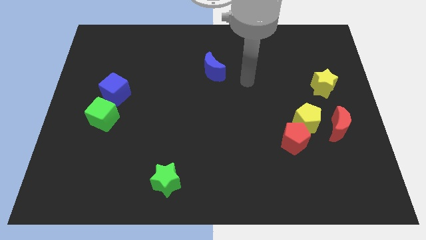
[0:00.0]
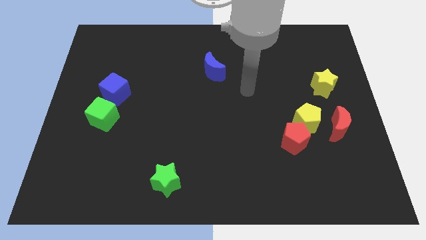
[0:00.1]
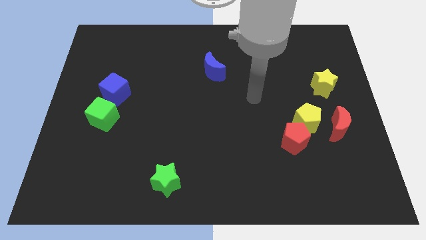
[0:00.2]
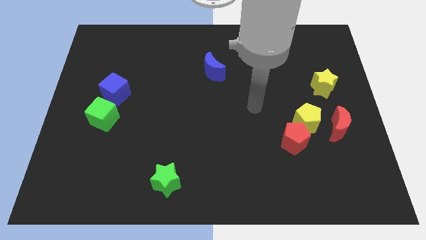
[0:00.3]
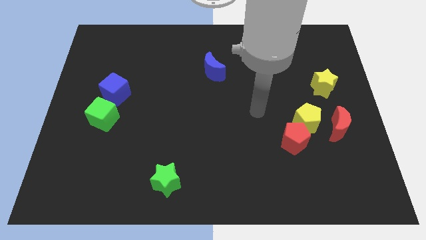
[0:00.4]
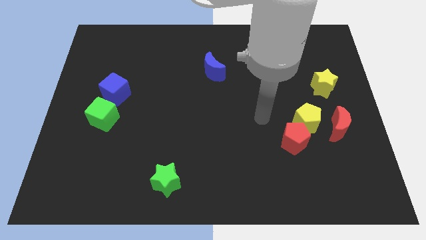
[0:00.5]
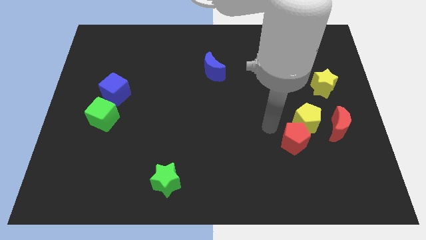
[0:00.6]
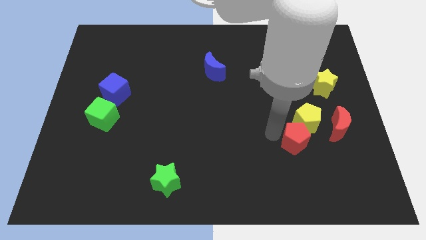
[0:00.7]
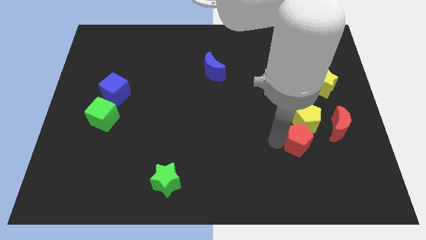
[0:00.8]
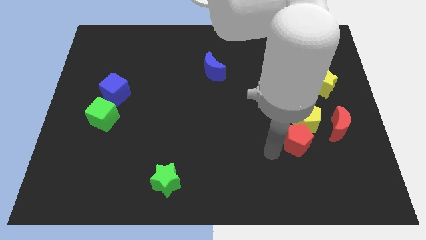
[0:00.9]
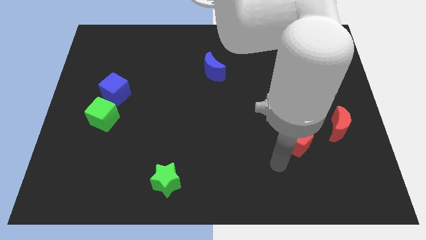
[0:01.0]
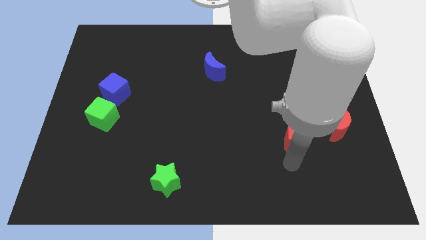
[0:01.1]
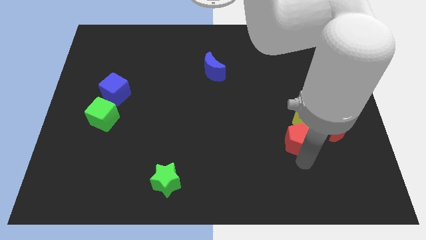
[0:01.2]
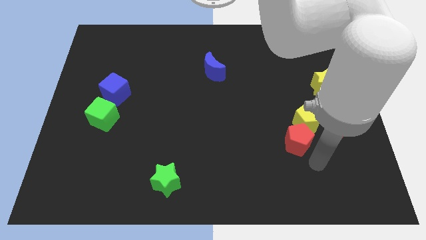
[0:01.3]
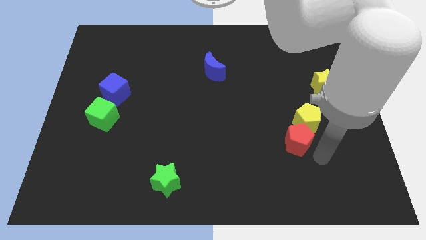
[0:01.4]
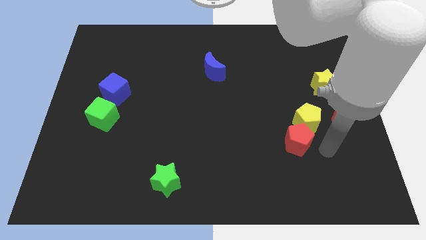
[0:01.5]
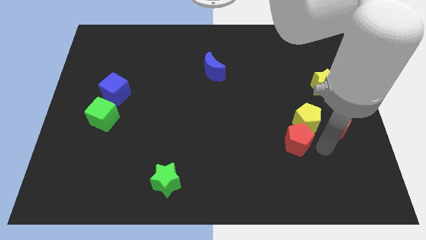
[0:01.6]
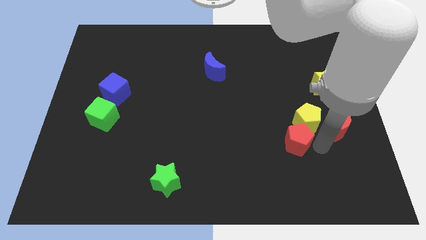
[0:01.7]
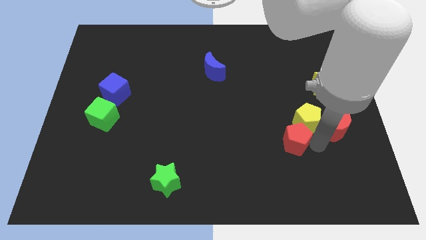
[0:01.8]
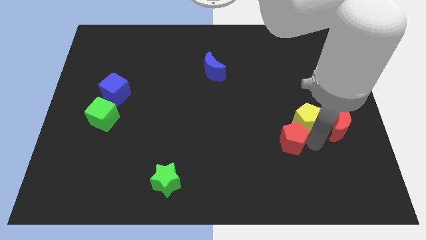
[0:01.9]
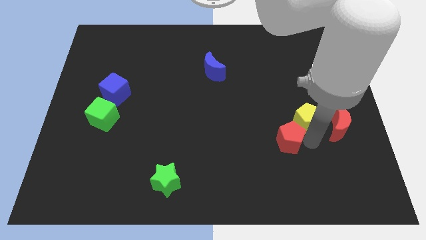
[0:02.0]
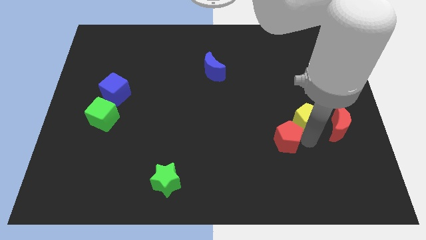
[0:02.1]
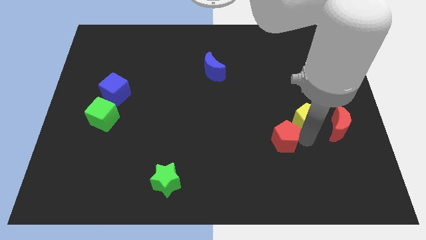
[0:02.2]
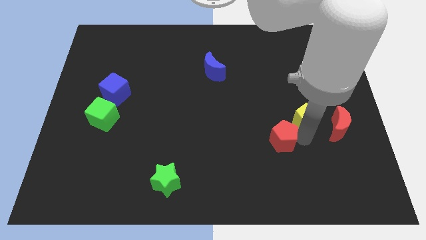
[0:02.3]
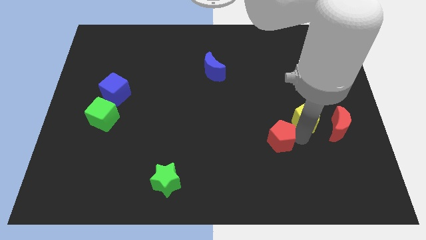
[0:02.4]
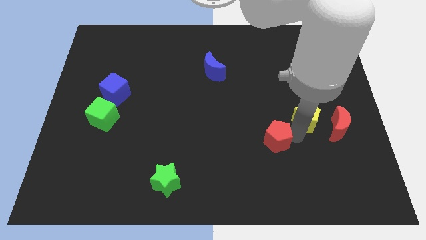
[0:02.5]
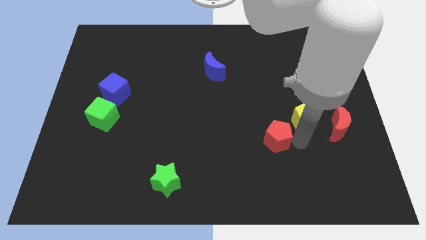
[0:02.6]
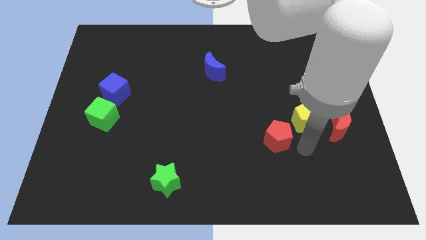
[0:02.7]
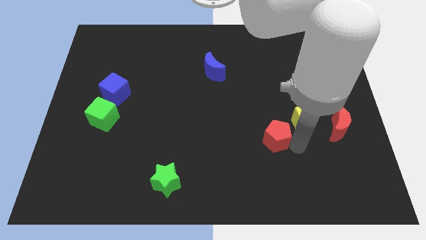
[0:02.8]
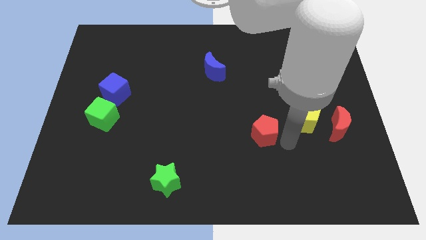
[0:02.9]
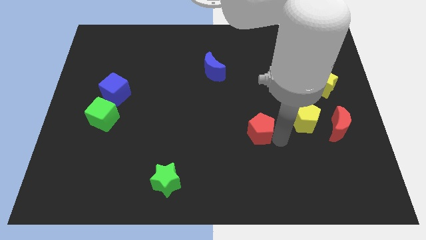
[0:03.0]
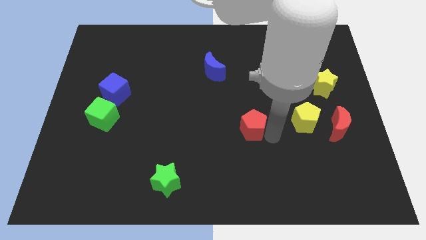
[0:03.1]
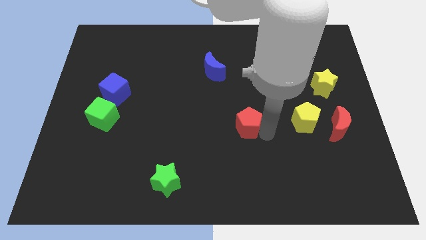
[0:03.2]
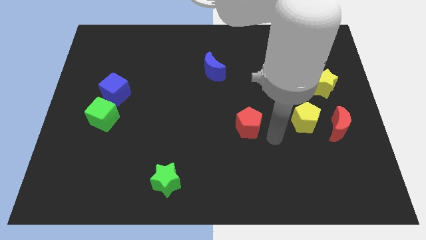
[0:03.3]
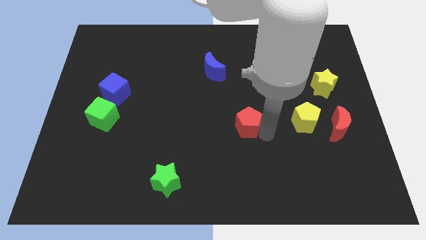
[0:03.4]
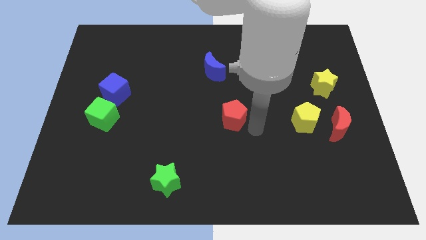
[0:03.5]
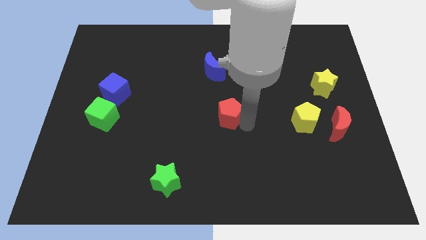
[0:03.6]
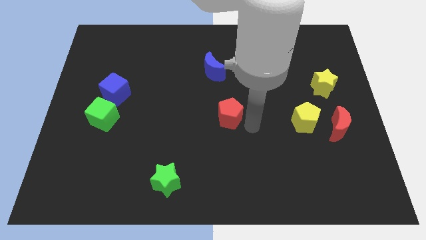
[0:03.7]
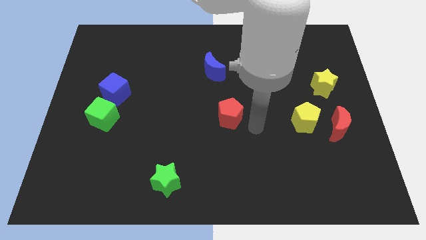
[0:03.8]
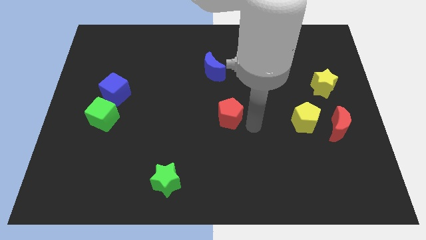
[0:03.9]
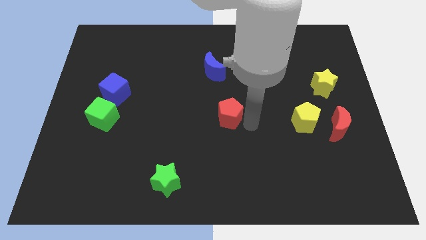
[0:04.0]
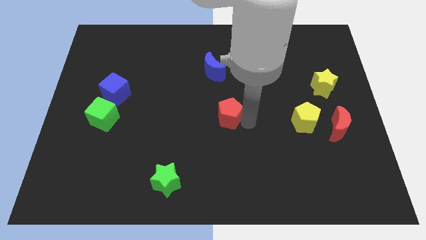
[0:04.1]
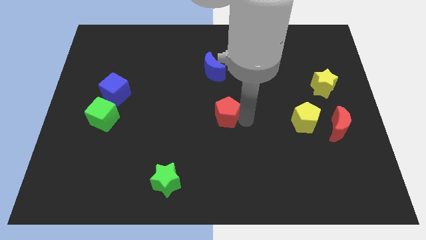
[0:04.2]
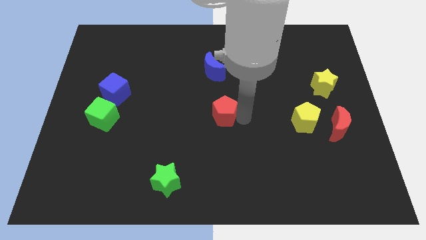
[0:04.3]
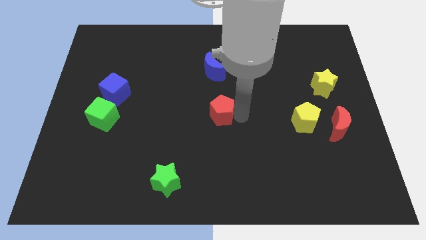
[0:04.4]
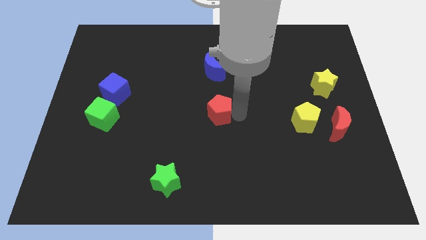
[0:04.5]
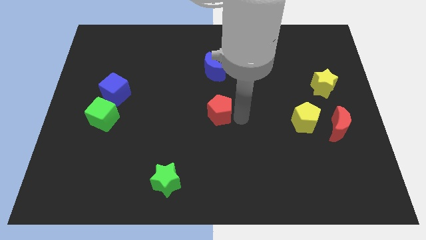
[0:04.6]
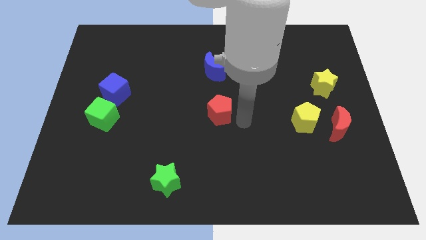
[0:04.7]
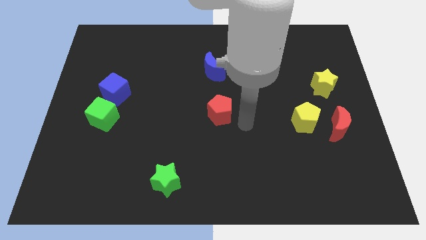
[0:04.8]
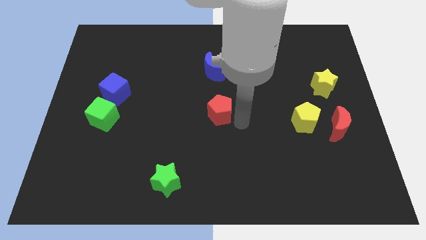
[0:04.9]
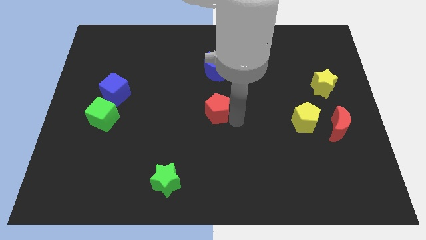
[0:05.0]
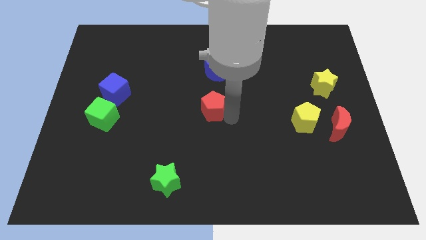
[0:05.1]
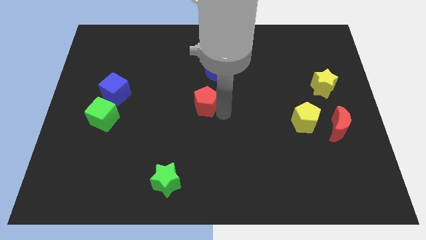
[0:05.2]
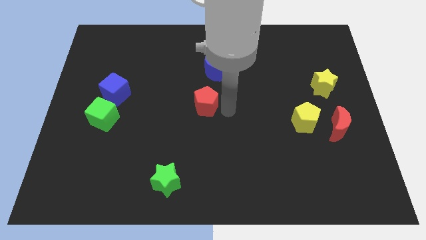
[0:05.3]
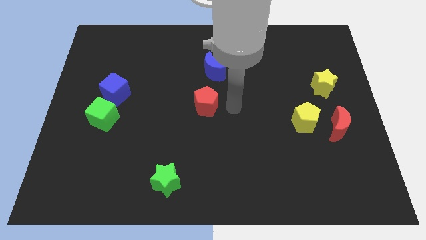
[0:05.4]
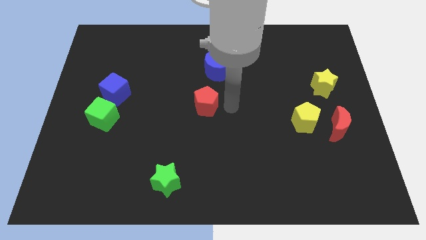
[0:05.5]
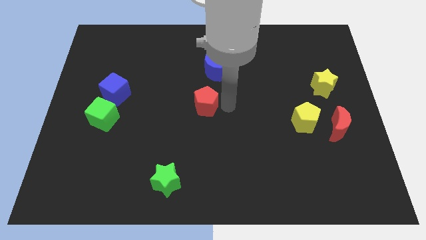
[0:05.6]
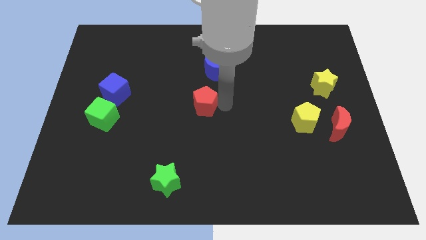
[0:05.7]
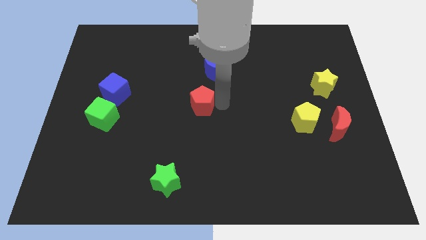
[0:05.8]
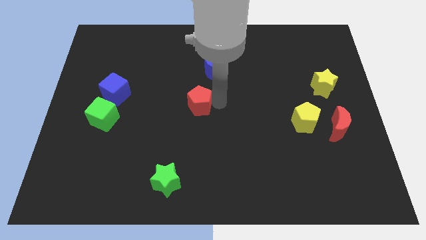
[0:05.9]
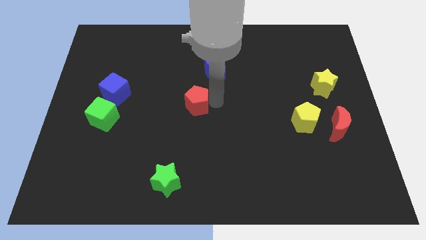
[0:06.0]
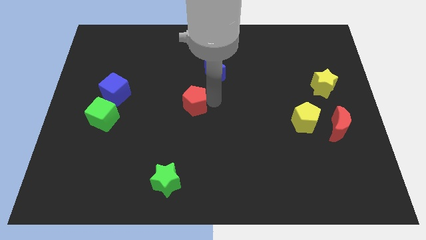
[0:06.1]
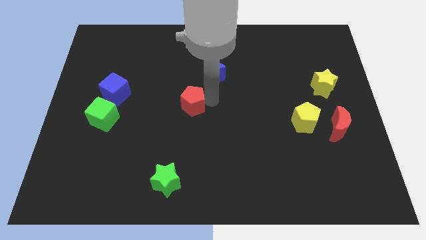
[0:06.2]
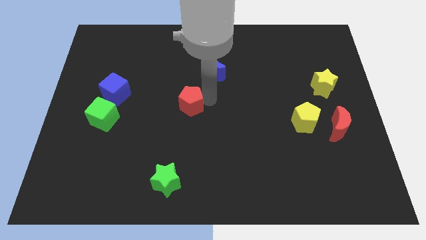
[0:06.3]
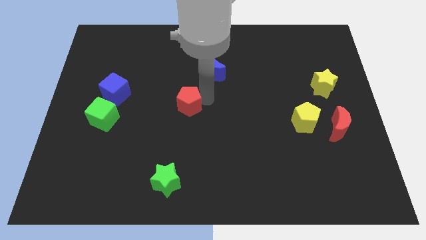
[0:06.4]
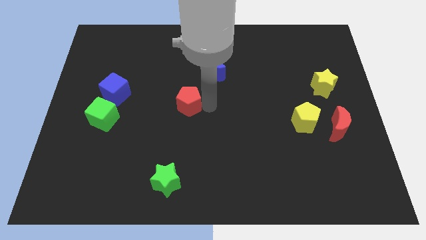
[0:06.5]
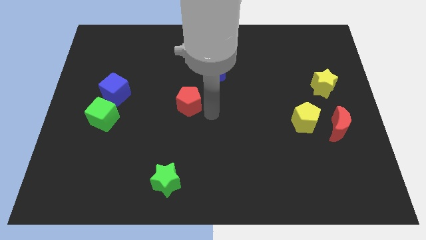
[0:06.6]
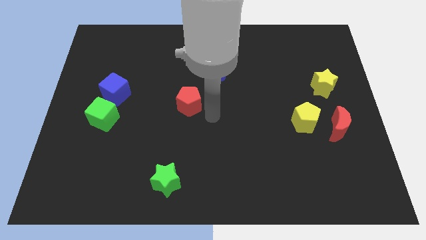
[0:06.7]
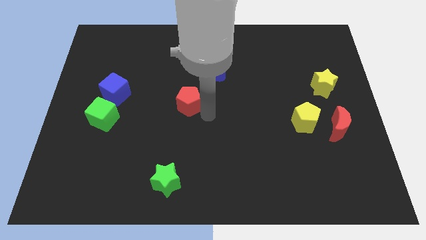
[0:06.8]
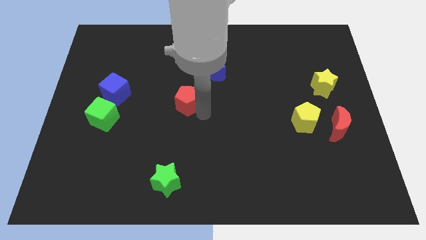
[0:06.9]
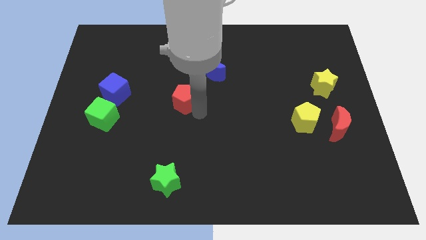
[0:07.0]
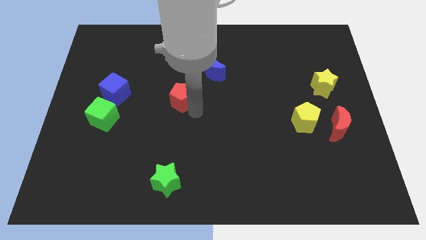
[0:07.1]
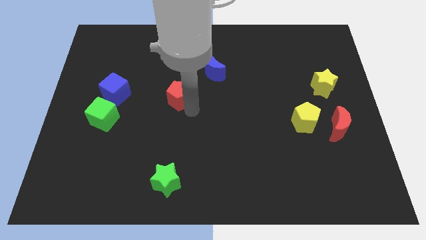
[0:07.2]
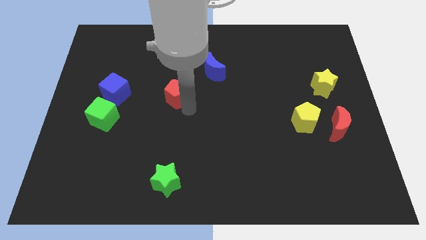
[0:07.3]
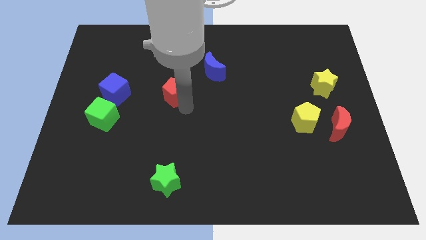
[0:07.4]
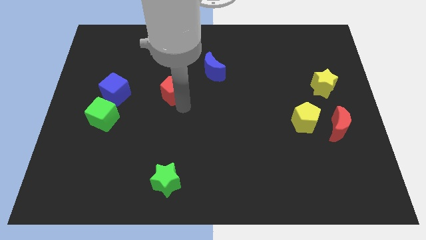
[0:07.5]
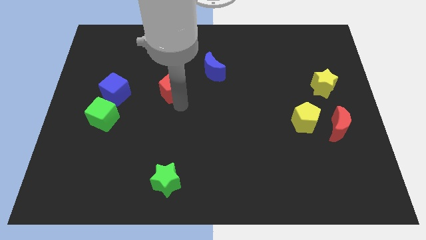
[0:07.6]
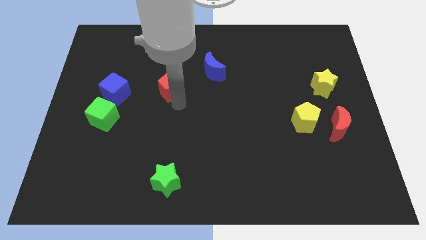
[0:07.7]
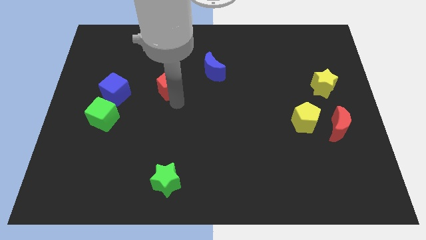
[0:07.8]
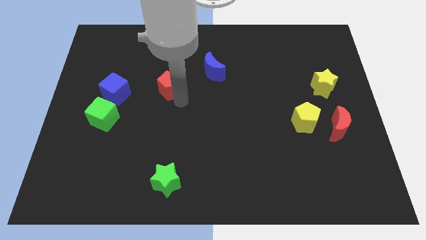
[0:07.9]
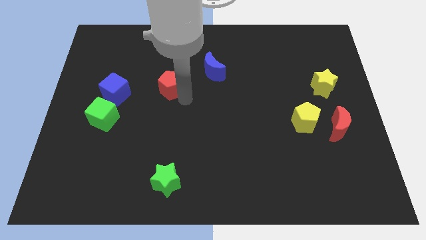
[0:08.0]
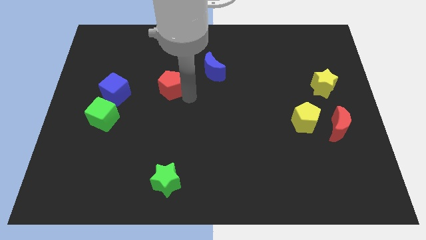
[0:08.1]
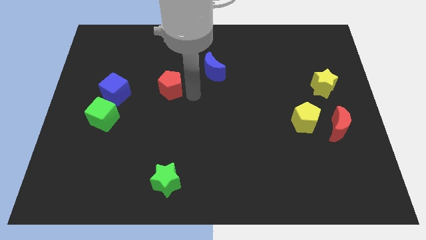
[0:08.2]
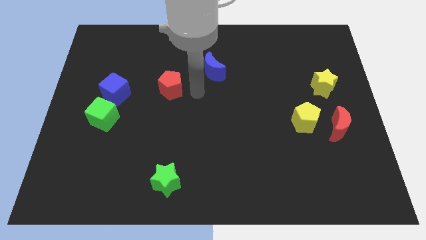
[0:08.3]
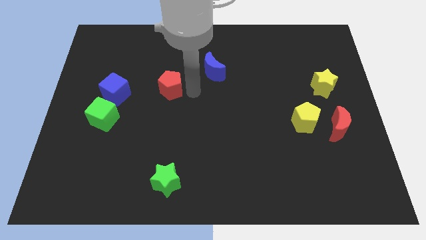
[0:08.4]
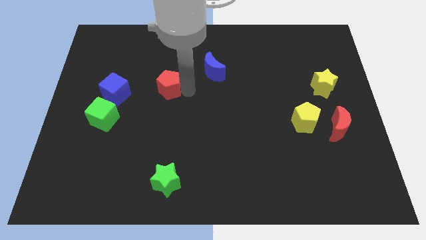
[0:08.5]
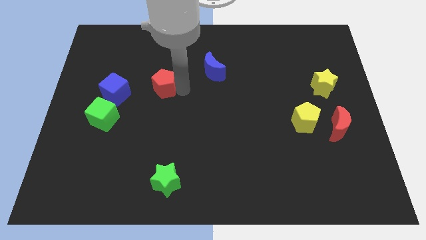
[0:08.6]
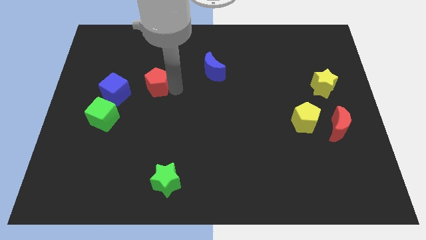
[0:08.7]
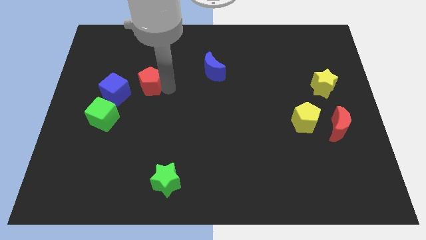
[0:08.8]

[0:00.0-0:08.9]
move the red pentagon to the top right of the blue cube
